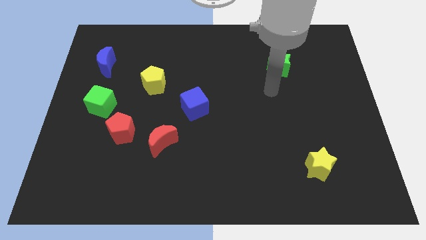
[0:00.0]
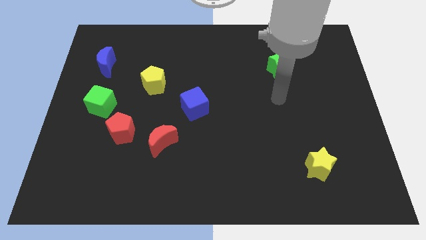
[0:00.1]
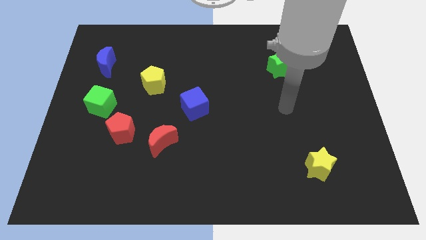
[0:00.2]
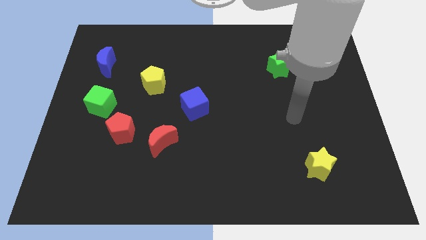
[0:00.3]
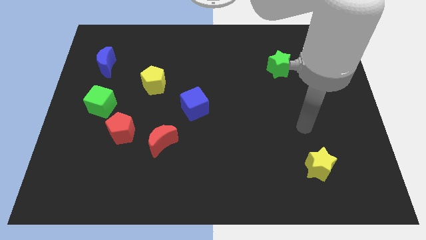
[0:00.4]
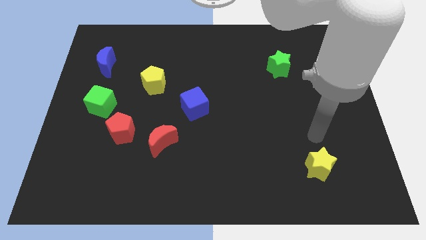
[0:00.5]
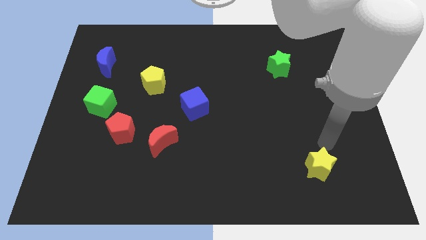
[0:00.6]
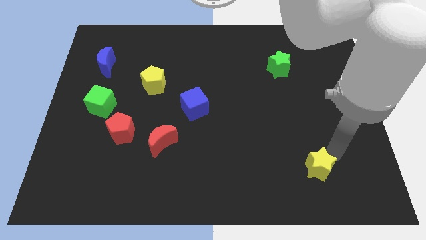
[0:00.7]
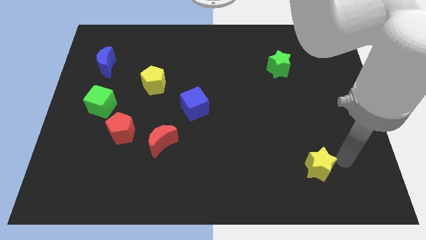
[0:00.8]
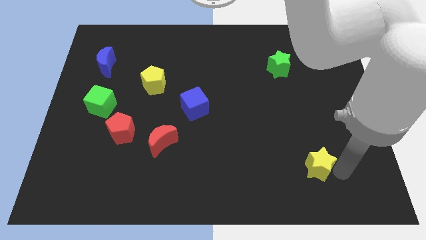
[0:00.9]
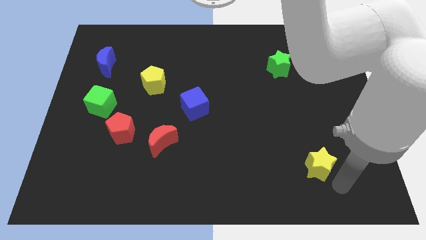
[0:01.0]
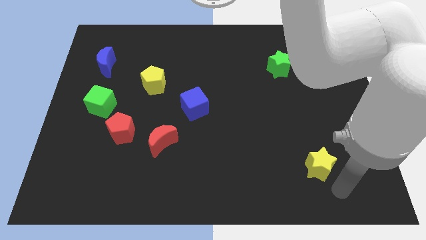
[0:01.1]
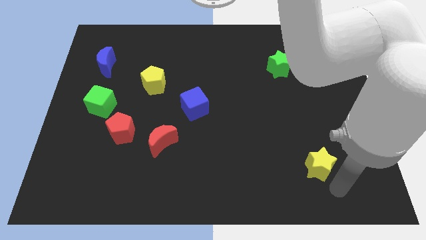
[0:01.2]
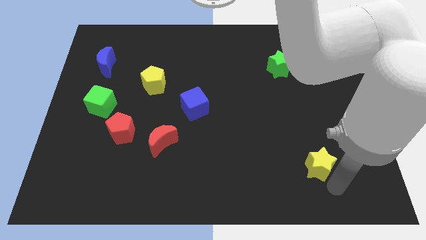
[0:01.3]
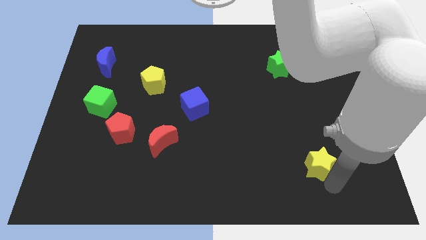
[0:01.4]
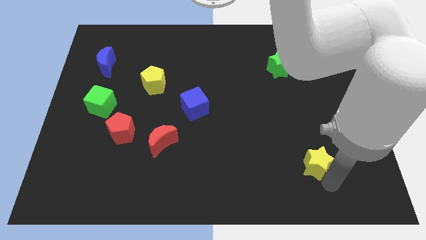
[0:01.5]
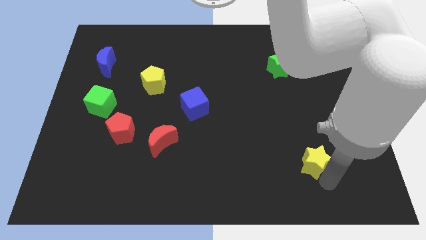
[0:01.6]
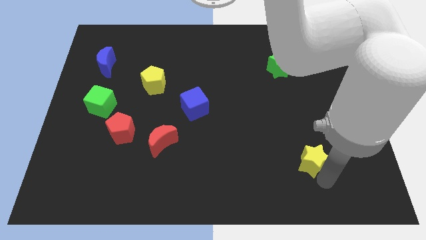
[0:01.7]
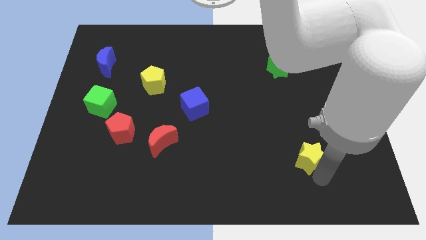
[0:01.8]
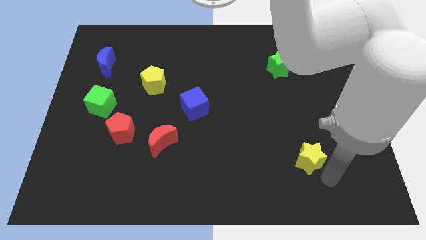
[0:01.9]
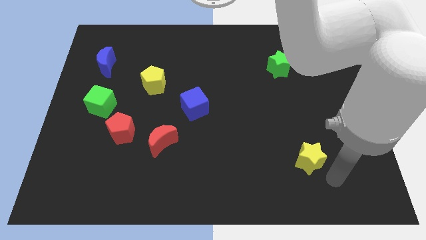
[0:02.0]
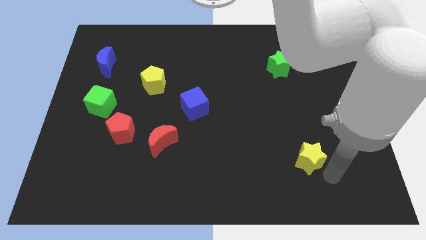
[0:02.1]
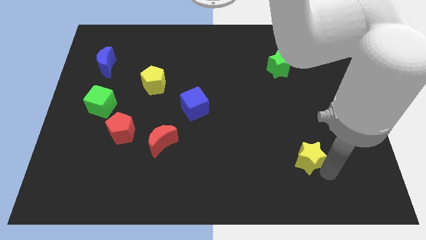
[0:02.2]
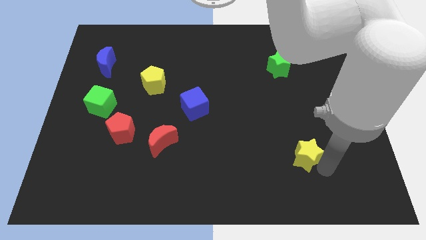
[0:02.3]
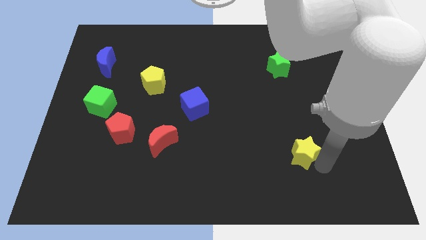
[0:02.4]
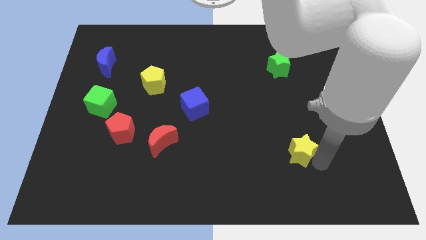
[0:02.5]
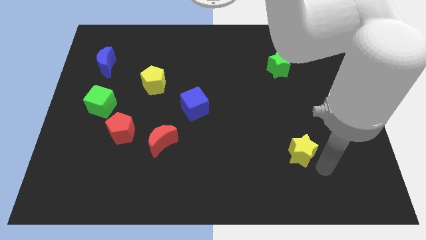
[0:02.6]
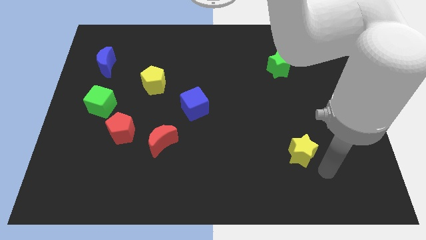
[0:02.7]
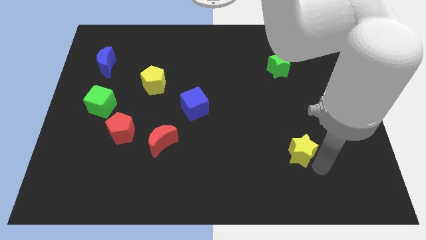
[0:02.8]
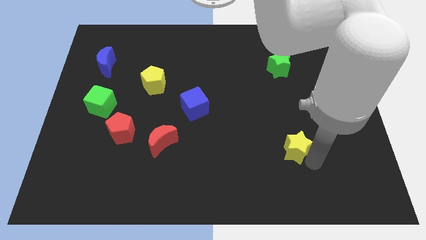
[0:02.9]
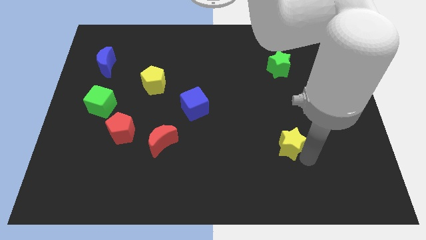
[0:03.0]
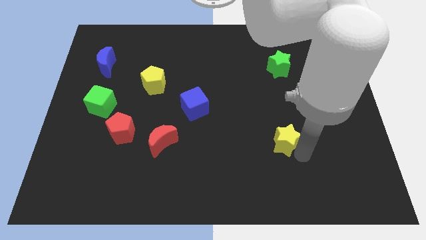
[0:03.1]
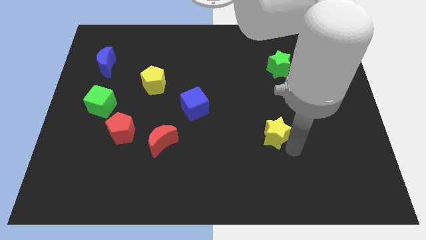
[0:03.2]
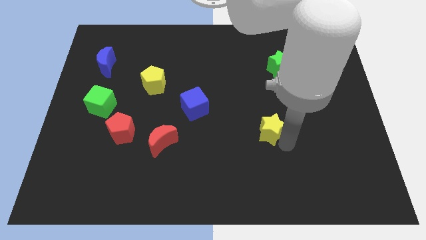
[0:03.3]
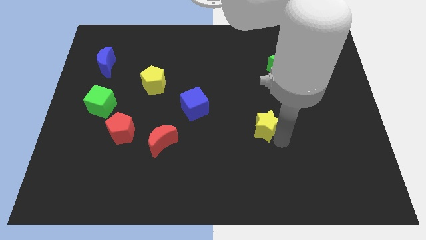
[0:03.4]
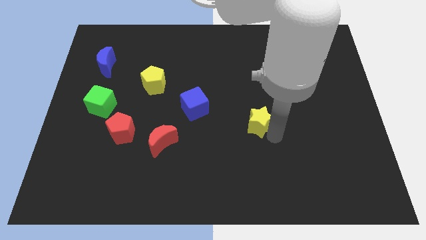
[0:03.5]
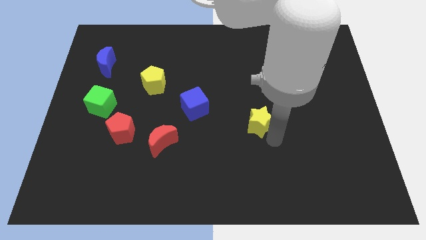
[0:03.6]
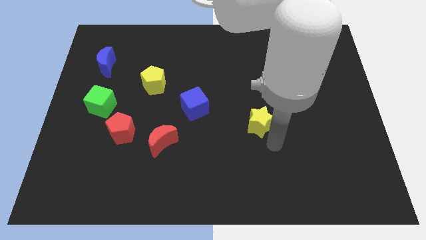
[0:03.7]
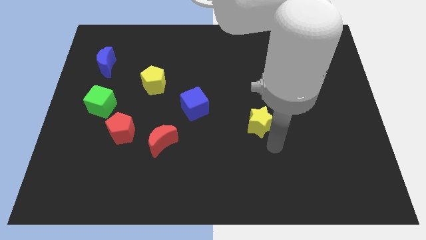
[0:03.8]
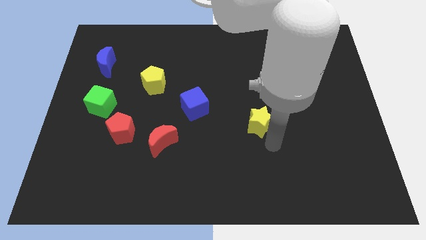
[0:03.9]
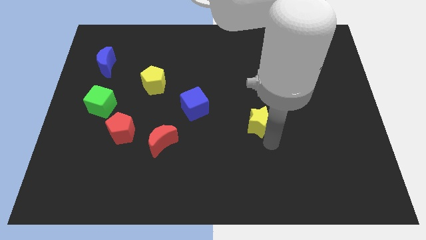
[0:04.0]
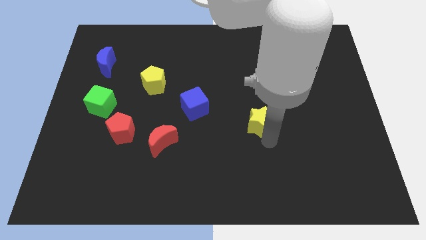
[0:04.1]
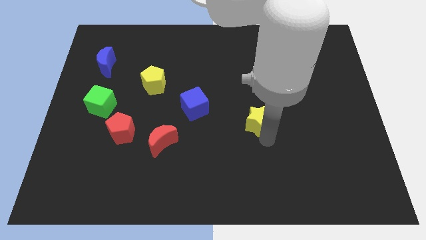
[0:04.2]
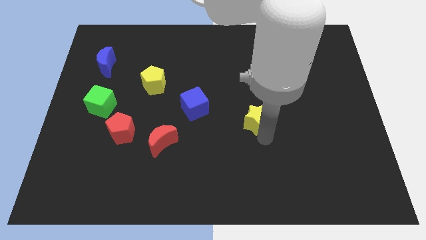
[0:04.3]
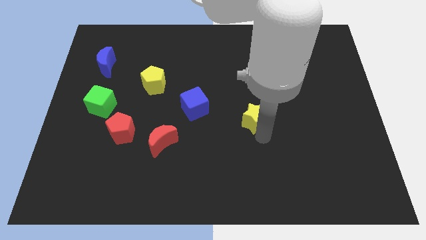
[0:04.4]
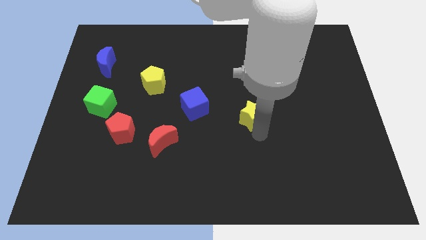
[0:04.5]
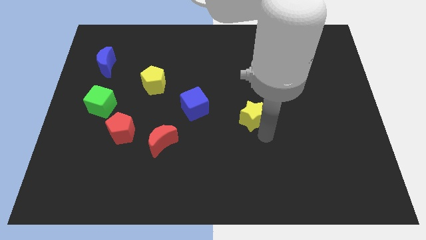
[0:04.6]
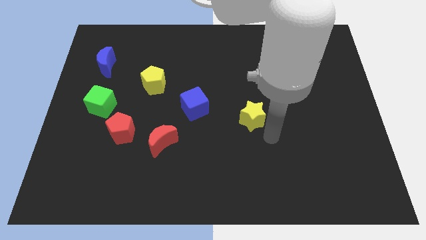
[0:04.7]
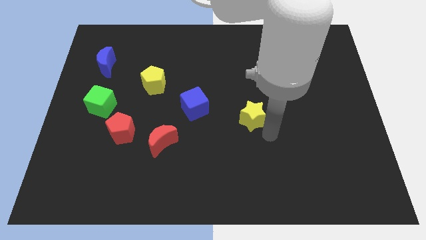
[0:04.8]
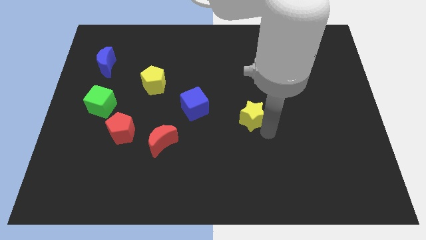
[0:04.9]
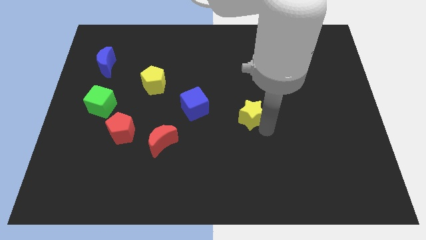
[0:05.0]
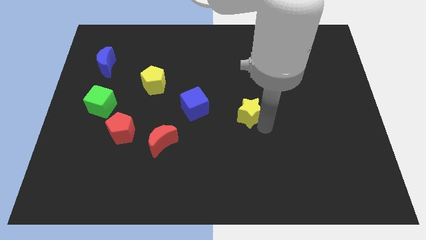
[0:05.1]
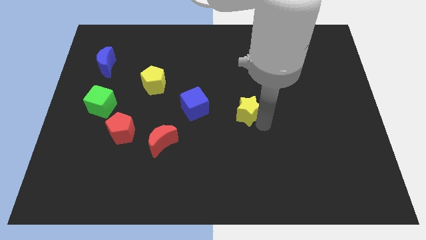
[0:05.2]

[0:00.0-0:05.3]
push the yellow star up and then to the left

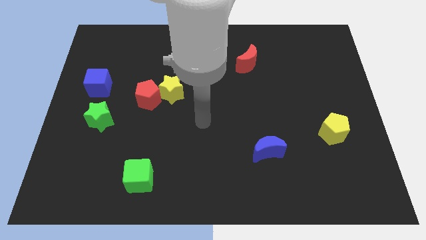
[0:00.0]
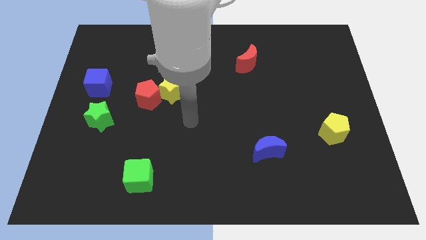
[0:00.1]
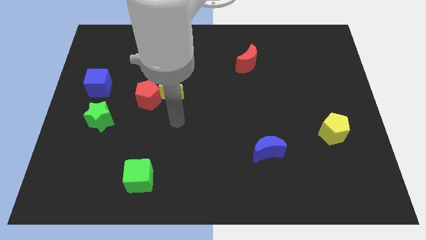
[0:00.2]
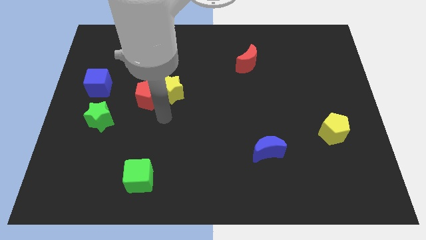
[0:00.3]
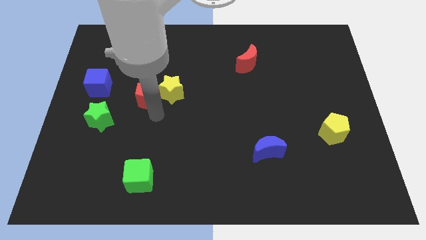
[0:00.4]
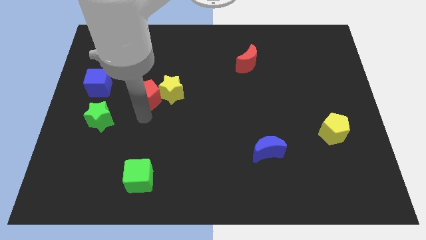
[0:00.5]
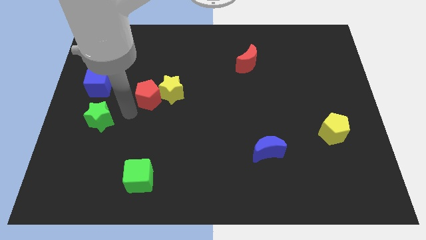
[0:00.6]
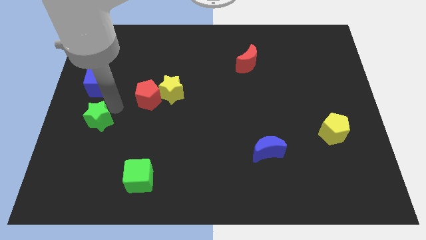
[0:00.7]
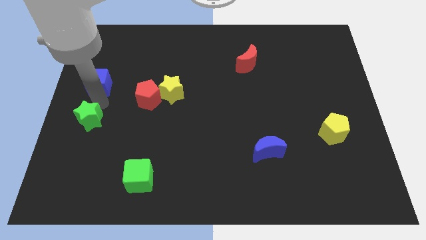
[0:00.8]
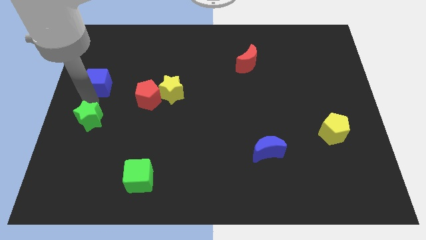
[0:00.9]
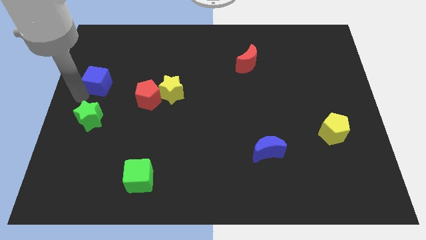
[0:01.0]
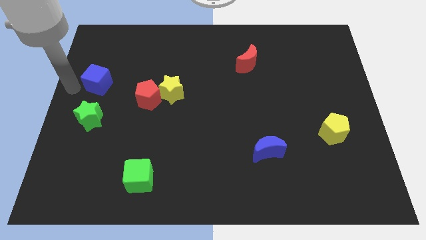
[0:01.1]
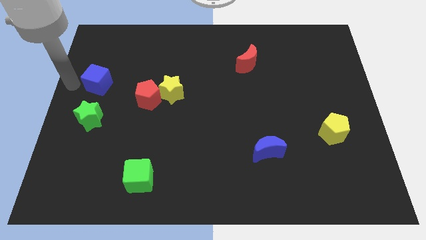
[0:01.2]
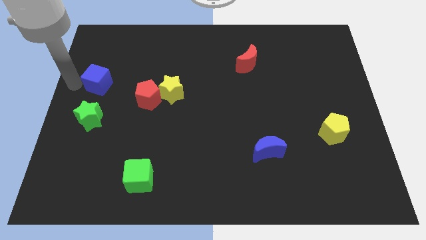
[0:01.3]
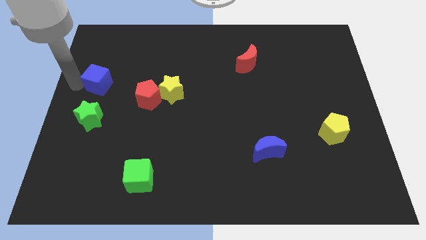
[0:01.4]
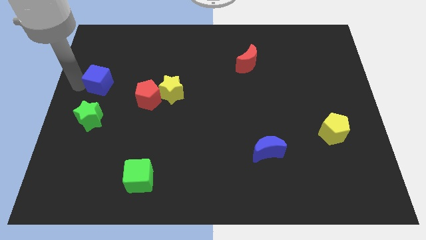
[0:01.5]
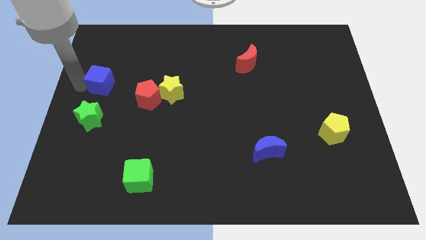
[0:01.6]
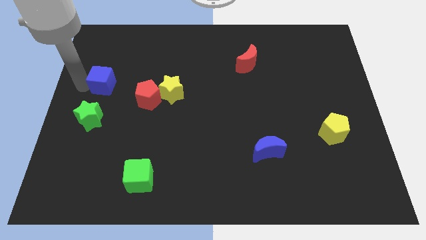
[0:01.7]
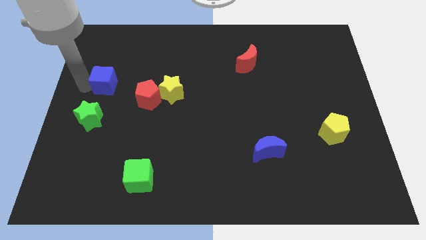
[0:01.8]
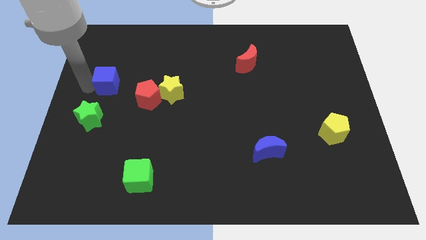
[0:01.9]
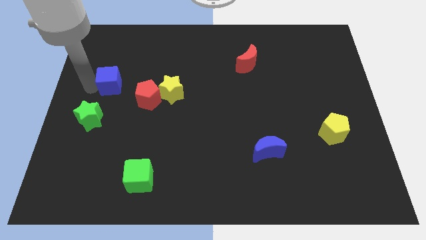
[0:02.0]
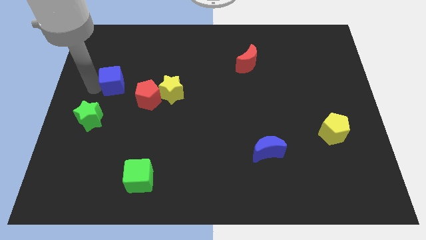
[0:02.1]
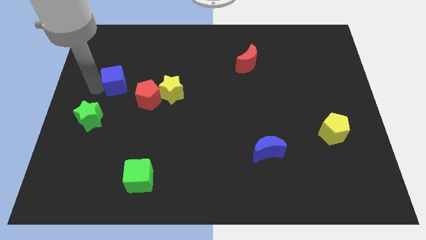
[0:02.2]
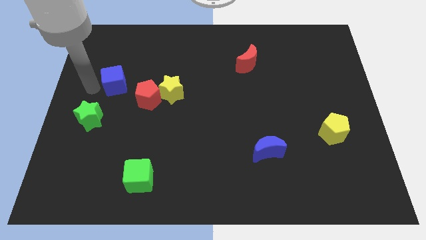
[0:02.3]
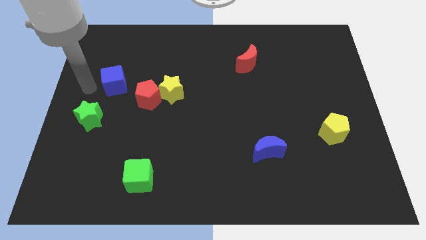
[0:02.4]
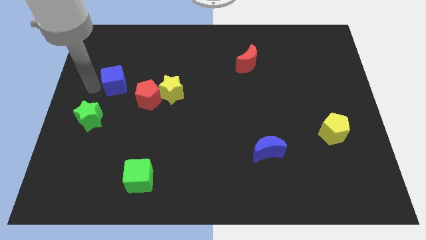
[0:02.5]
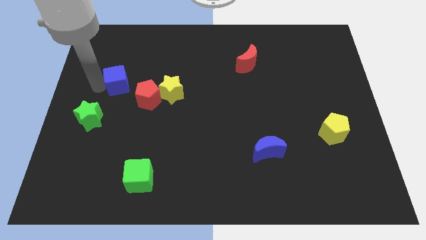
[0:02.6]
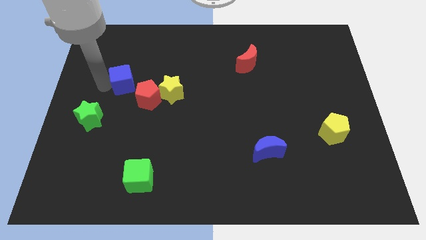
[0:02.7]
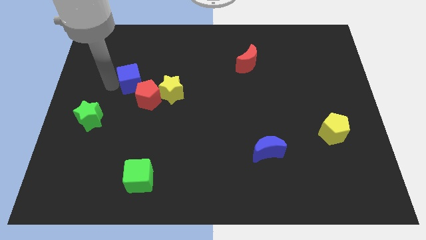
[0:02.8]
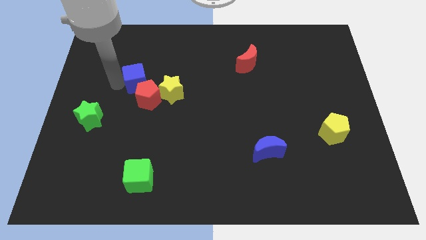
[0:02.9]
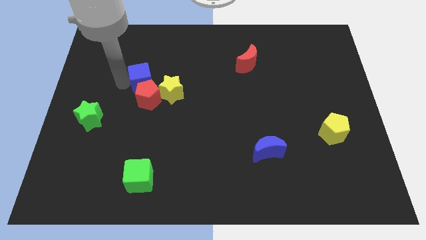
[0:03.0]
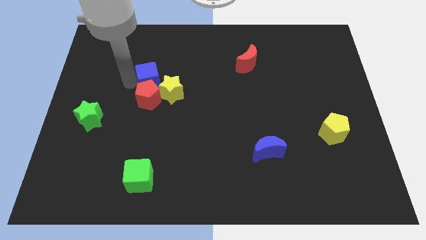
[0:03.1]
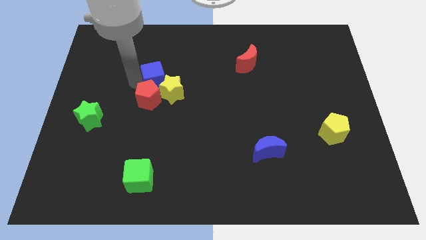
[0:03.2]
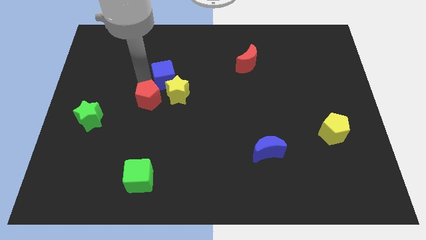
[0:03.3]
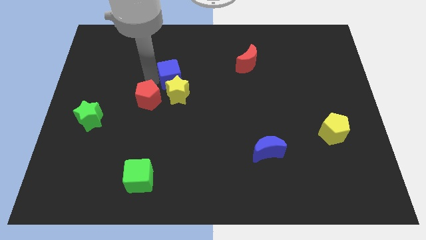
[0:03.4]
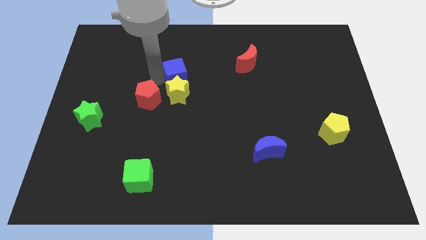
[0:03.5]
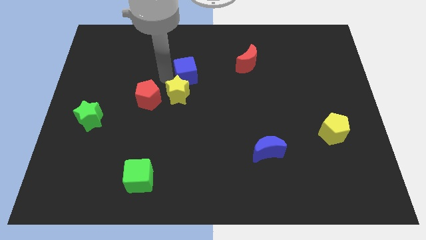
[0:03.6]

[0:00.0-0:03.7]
push the blue cube to the right
